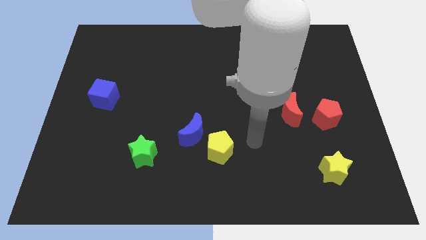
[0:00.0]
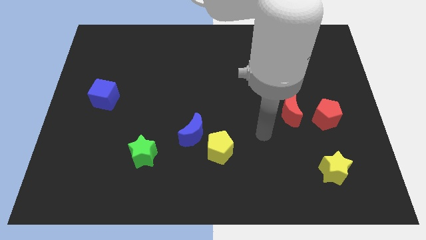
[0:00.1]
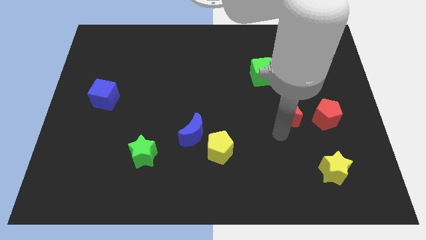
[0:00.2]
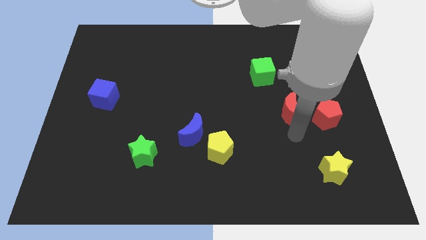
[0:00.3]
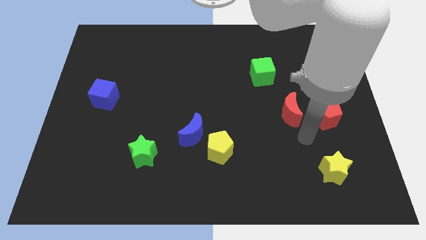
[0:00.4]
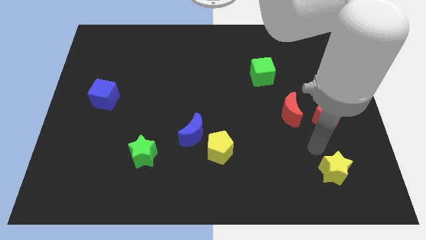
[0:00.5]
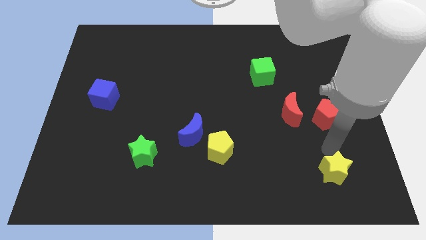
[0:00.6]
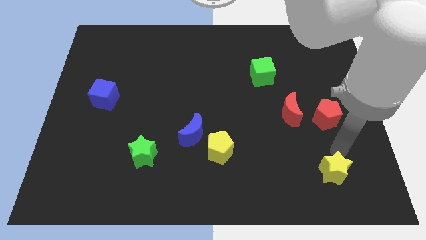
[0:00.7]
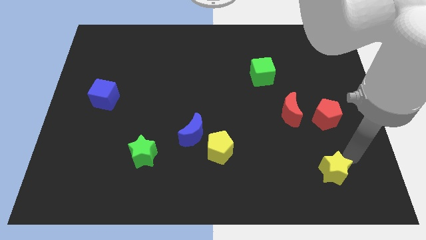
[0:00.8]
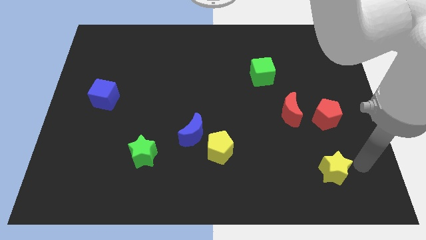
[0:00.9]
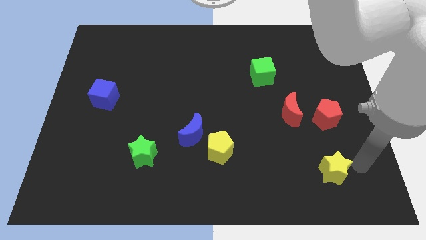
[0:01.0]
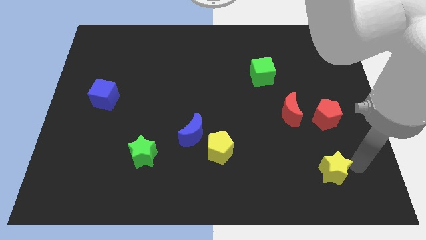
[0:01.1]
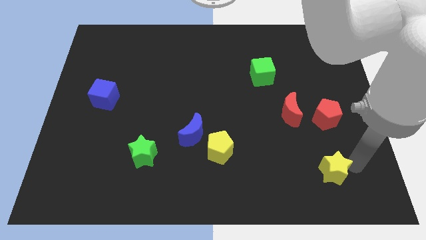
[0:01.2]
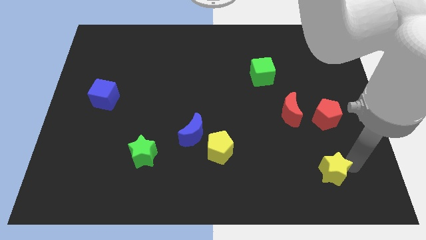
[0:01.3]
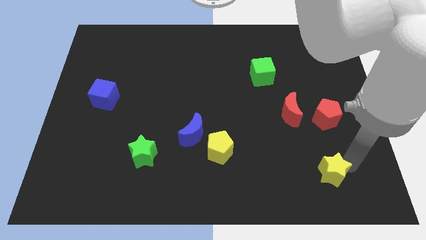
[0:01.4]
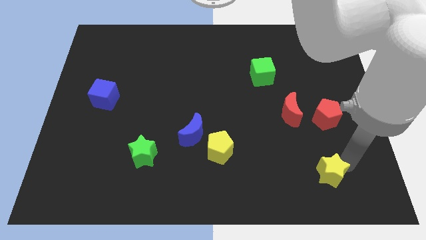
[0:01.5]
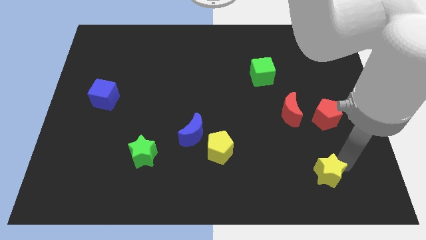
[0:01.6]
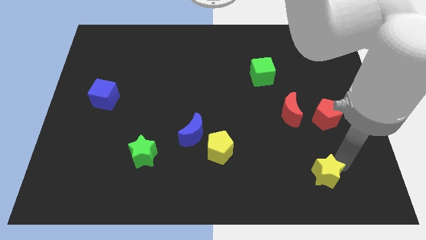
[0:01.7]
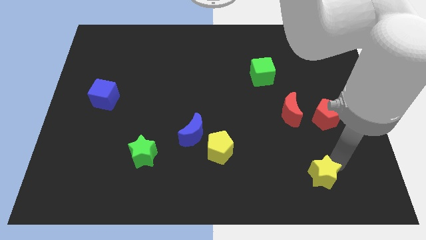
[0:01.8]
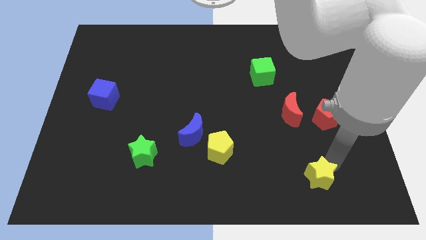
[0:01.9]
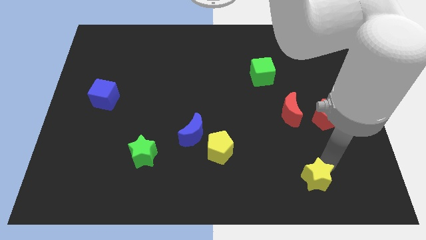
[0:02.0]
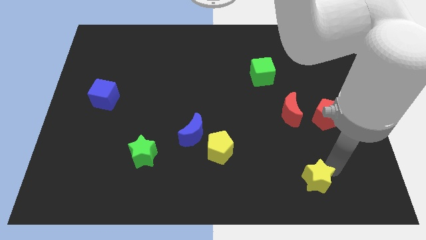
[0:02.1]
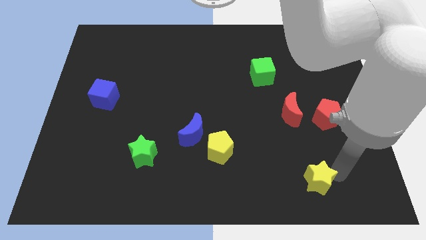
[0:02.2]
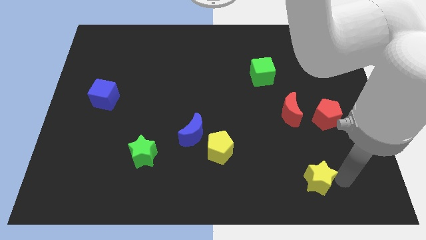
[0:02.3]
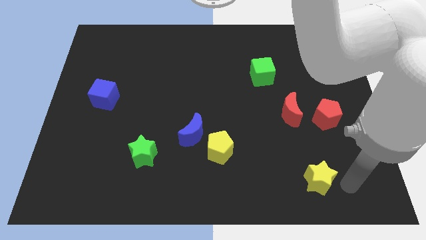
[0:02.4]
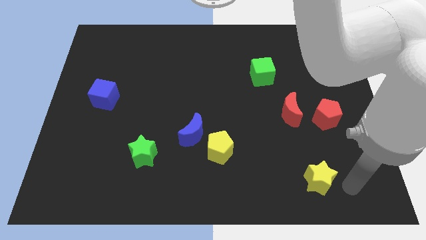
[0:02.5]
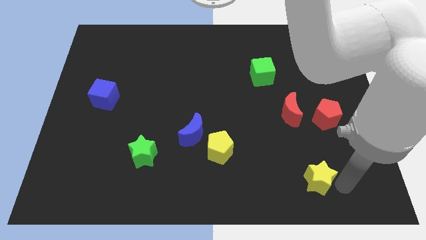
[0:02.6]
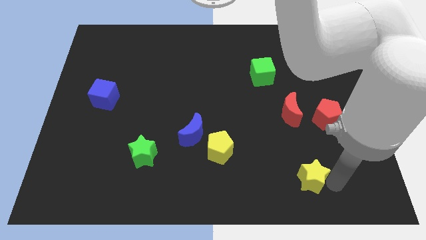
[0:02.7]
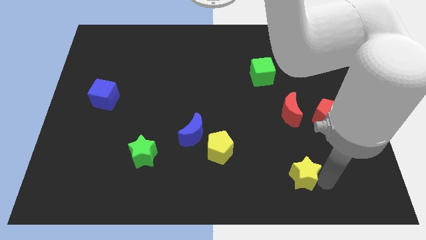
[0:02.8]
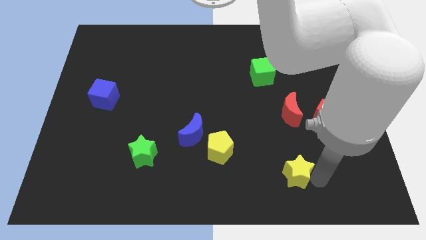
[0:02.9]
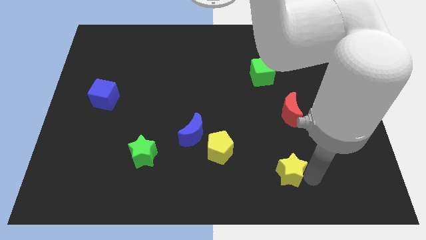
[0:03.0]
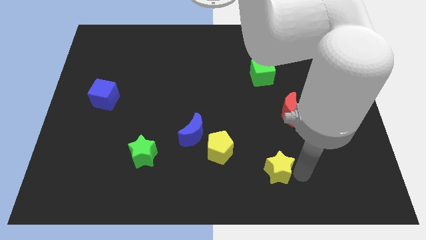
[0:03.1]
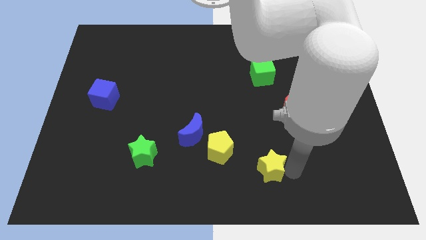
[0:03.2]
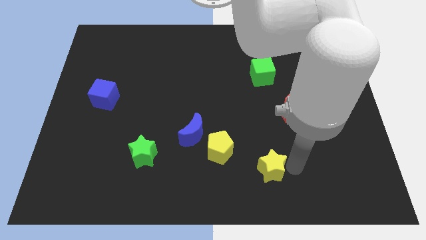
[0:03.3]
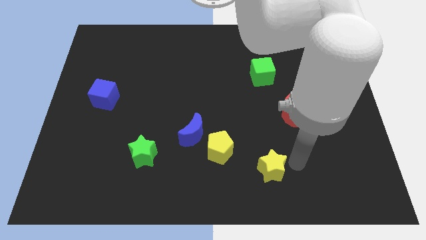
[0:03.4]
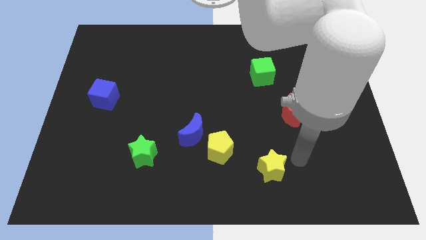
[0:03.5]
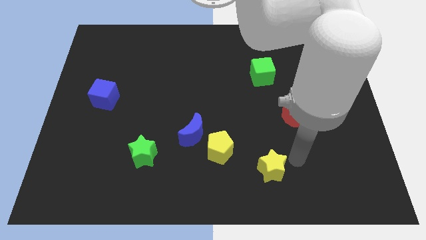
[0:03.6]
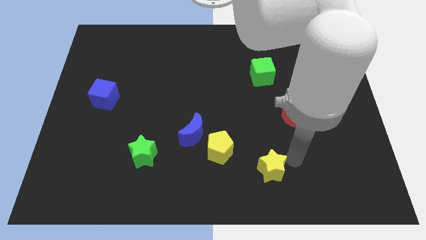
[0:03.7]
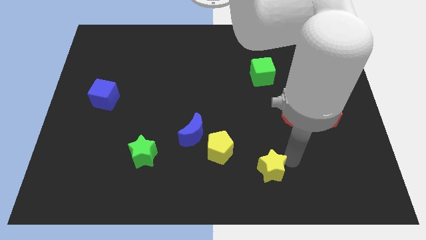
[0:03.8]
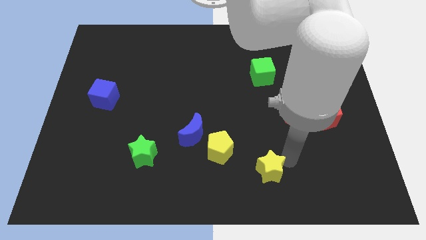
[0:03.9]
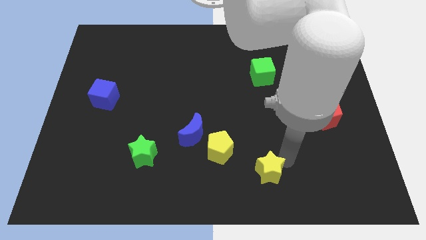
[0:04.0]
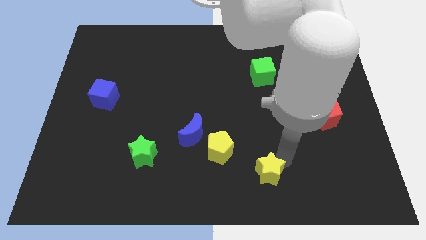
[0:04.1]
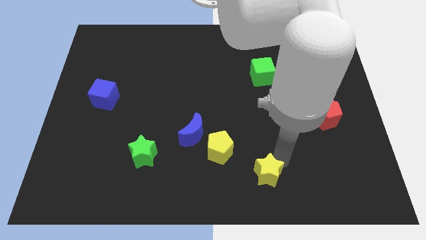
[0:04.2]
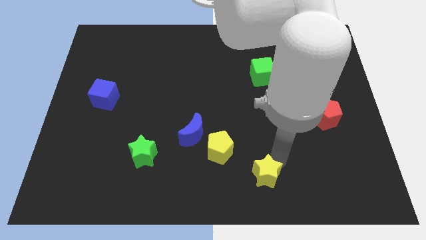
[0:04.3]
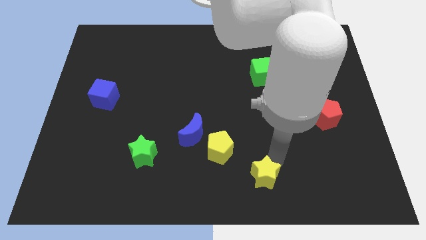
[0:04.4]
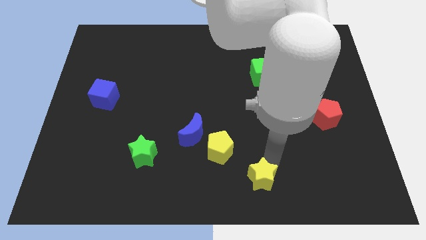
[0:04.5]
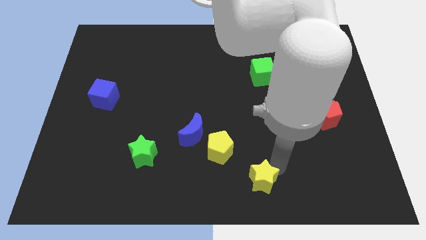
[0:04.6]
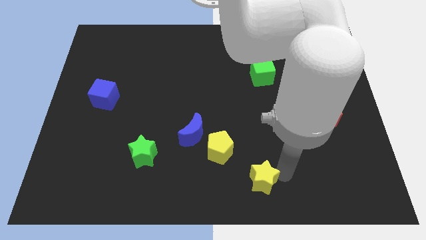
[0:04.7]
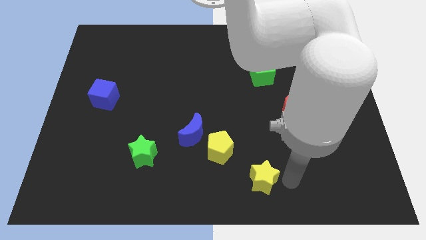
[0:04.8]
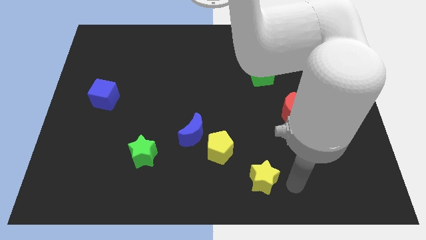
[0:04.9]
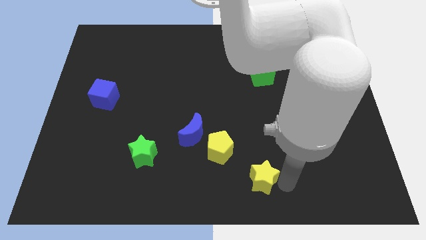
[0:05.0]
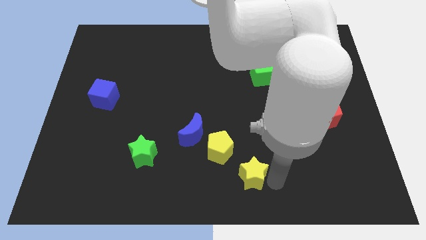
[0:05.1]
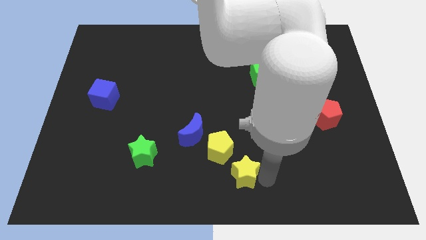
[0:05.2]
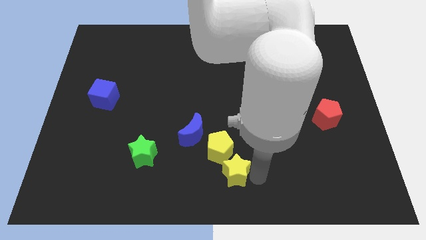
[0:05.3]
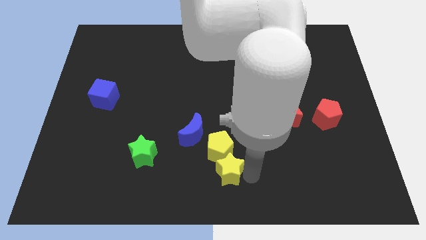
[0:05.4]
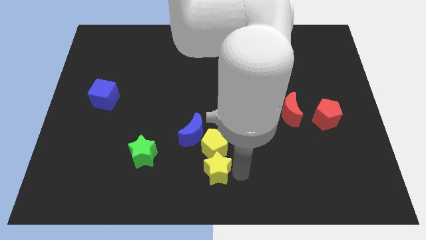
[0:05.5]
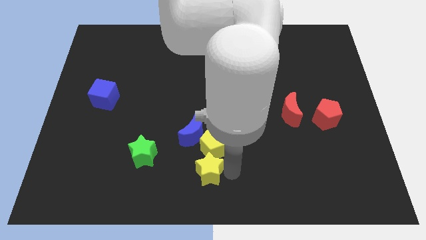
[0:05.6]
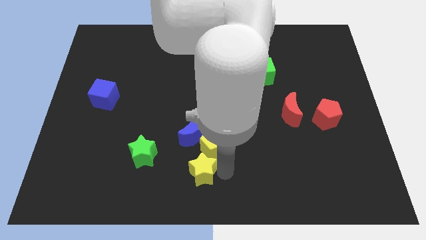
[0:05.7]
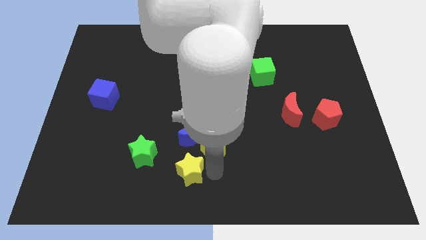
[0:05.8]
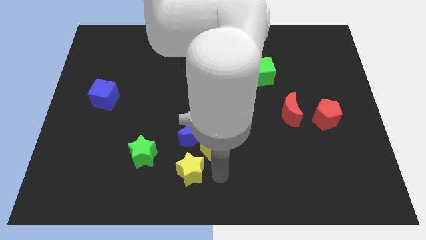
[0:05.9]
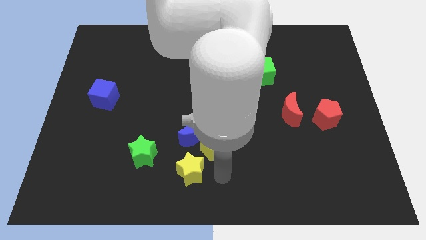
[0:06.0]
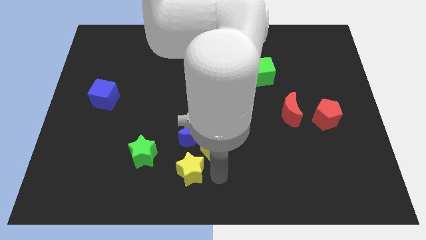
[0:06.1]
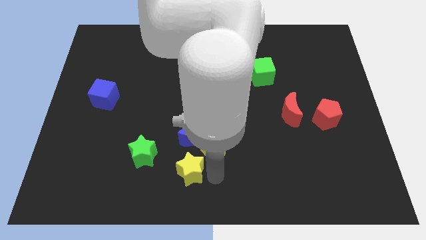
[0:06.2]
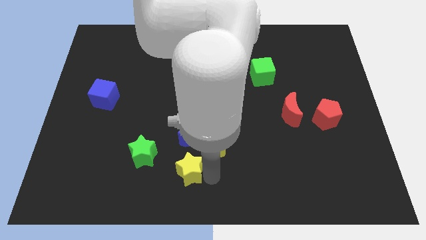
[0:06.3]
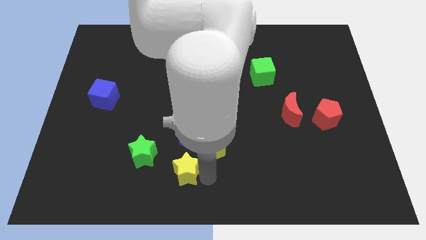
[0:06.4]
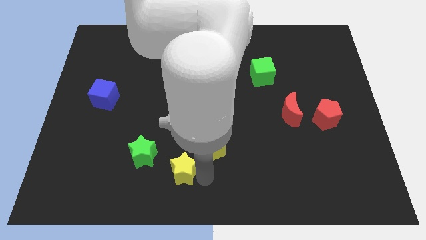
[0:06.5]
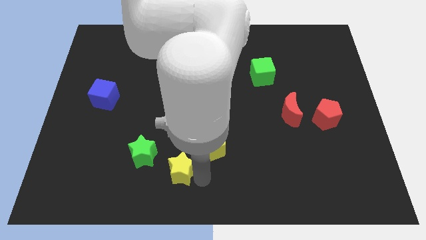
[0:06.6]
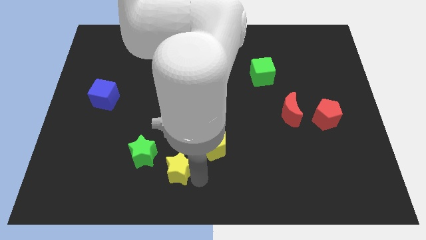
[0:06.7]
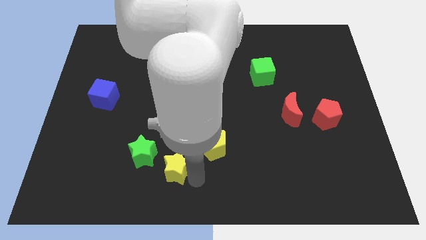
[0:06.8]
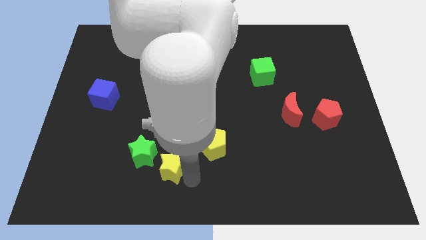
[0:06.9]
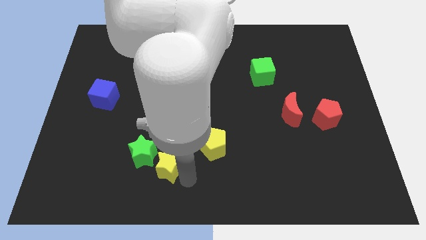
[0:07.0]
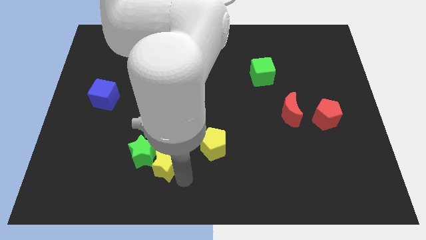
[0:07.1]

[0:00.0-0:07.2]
slide the yellow star to the green star
